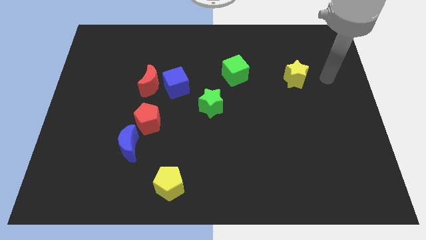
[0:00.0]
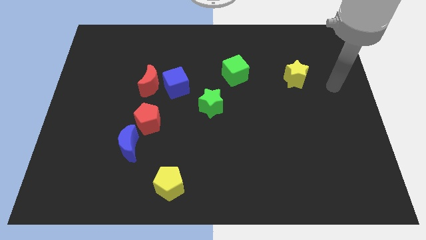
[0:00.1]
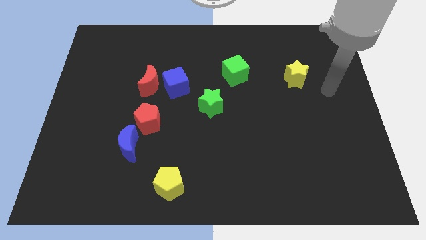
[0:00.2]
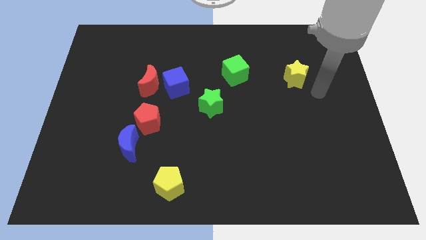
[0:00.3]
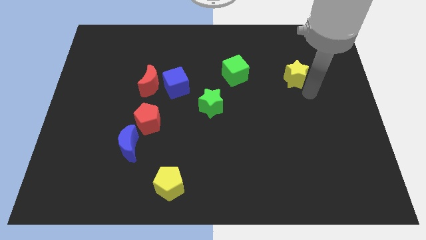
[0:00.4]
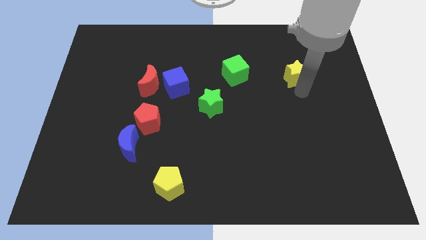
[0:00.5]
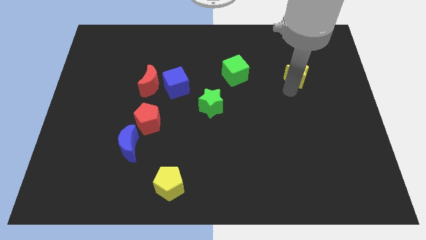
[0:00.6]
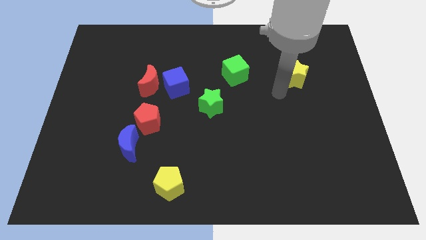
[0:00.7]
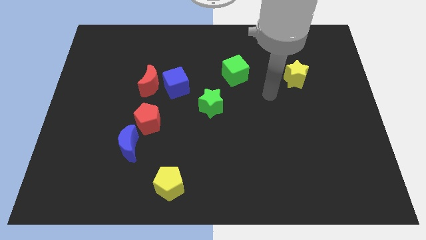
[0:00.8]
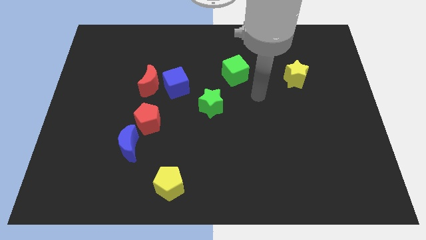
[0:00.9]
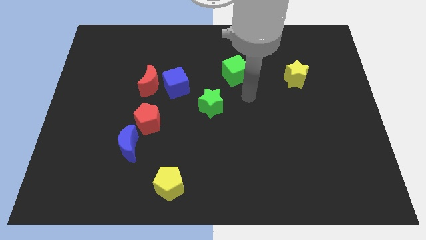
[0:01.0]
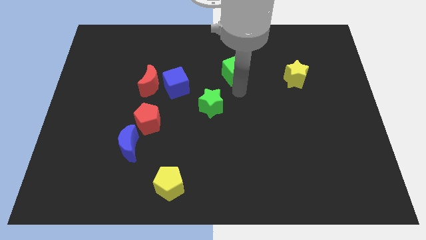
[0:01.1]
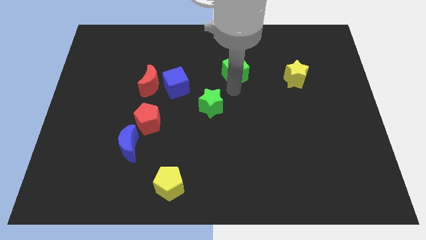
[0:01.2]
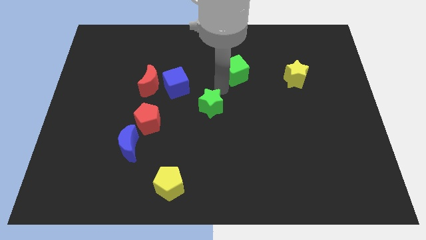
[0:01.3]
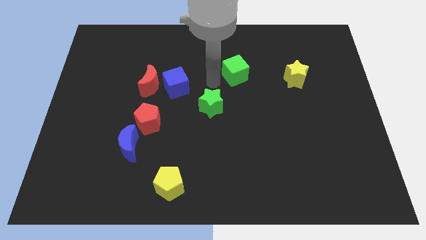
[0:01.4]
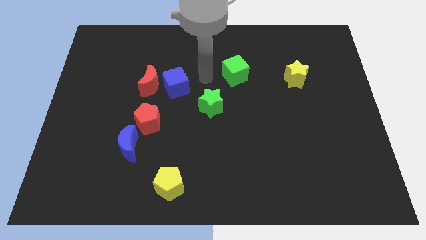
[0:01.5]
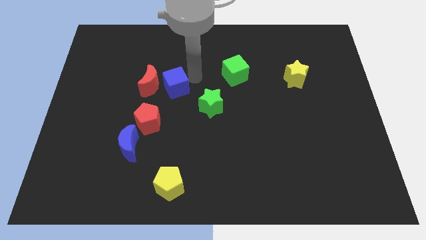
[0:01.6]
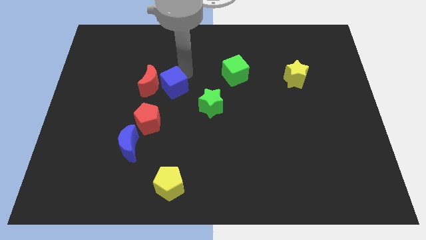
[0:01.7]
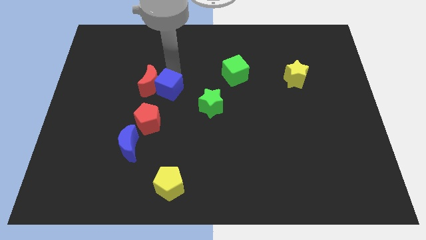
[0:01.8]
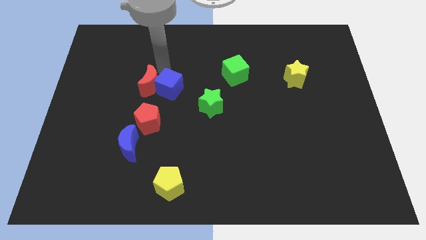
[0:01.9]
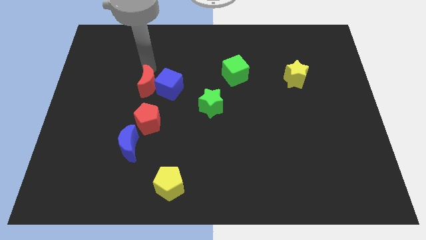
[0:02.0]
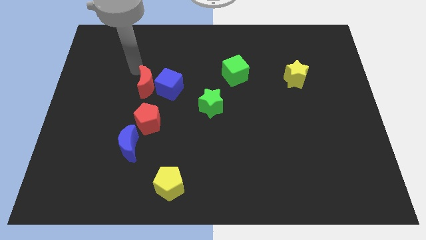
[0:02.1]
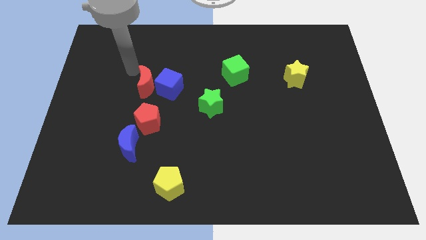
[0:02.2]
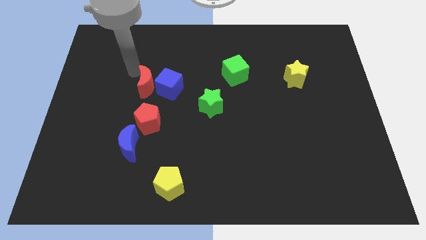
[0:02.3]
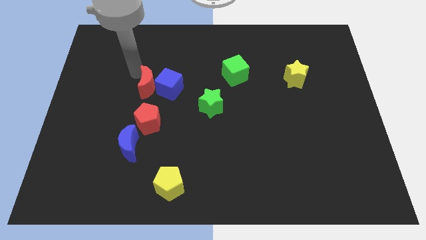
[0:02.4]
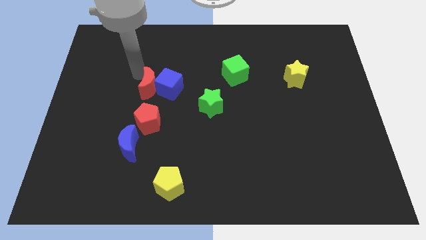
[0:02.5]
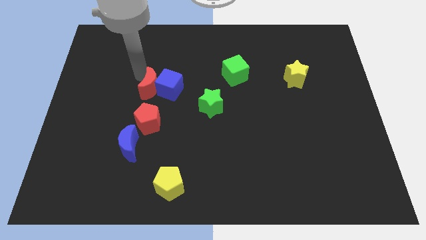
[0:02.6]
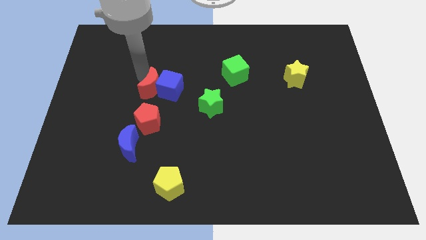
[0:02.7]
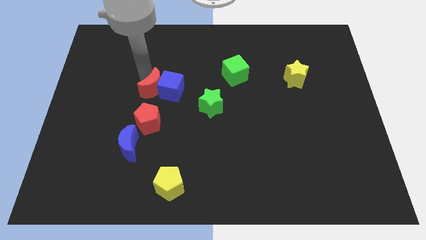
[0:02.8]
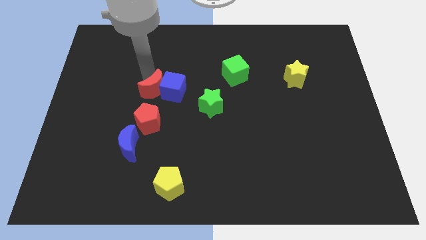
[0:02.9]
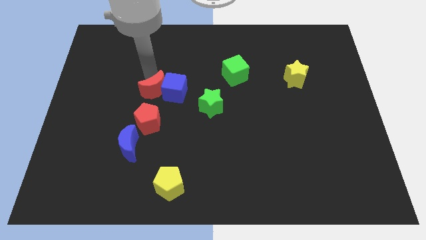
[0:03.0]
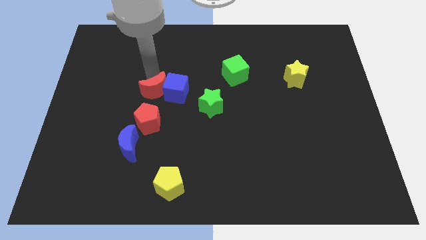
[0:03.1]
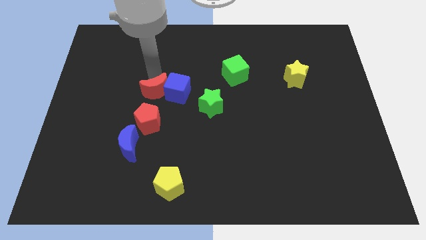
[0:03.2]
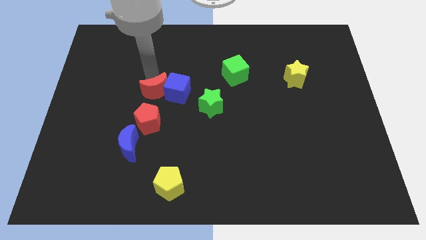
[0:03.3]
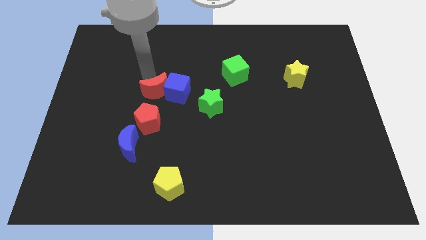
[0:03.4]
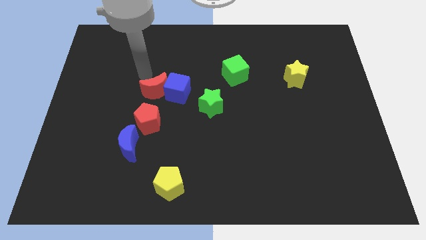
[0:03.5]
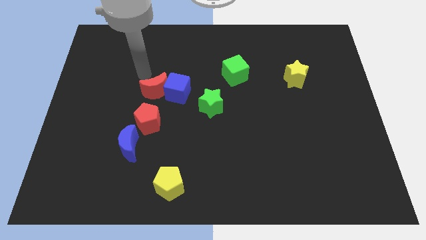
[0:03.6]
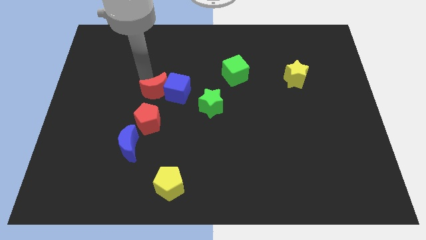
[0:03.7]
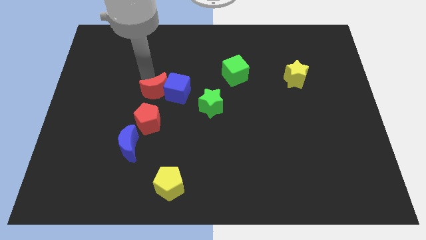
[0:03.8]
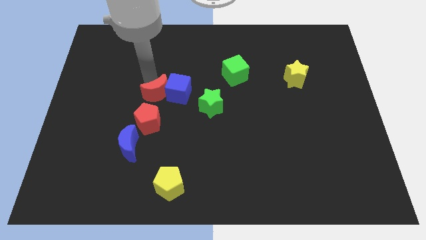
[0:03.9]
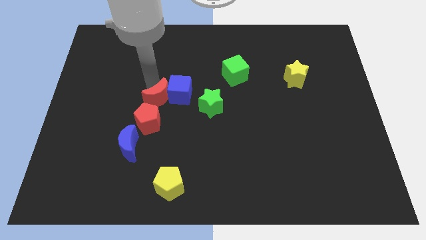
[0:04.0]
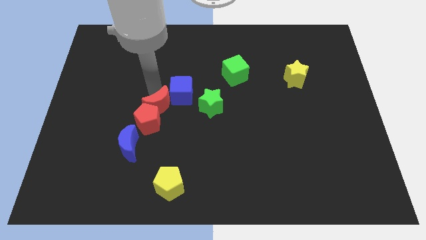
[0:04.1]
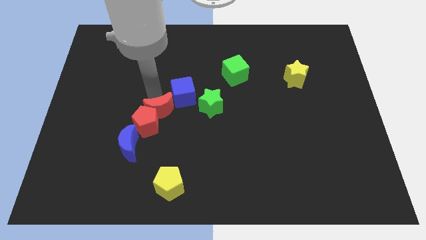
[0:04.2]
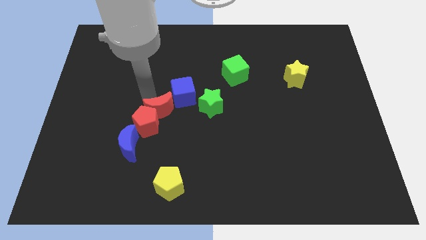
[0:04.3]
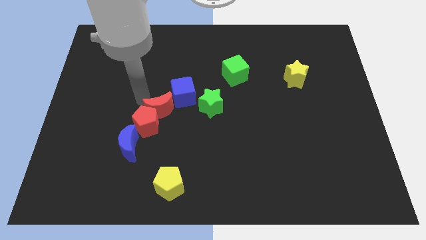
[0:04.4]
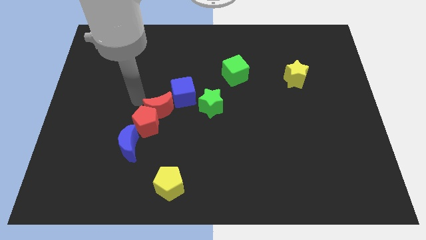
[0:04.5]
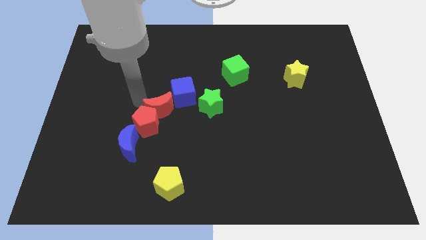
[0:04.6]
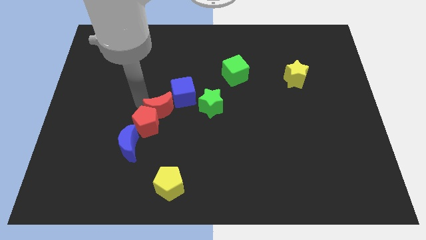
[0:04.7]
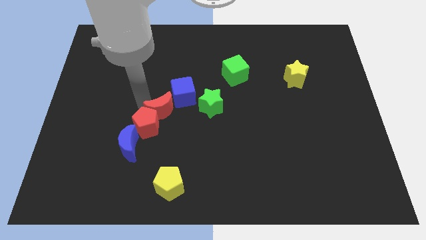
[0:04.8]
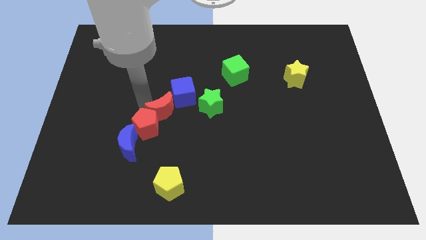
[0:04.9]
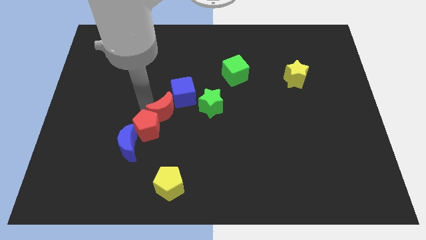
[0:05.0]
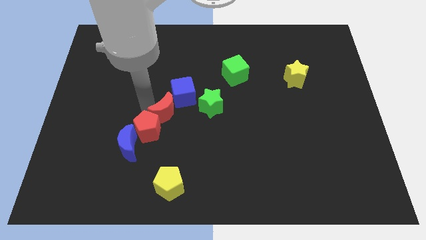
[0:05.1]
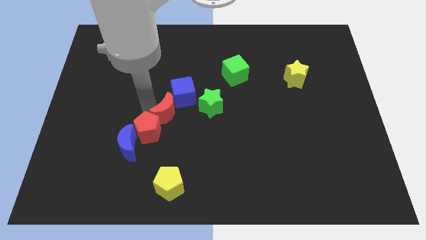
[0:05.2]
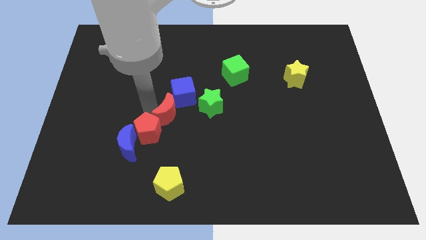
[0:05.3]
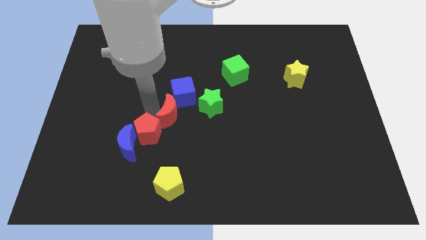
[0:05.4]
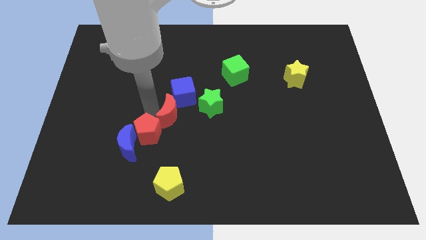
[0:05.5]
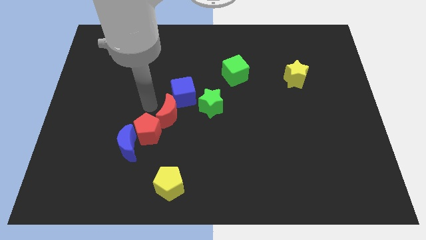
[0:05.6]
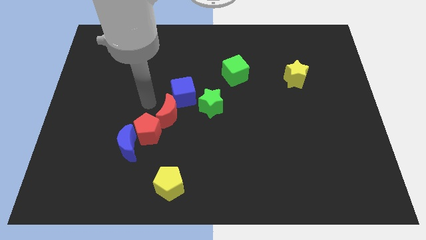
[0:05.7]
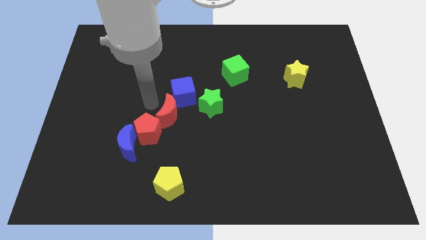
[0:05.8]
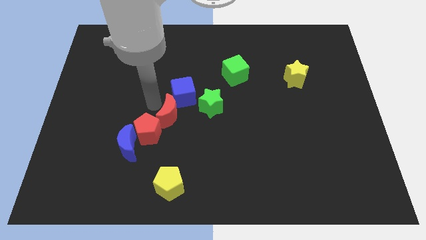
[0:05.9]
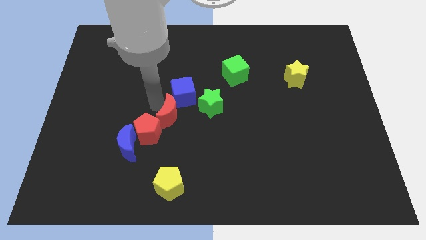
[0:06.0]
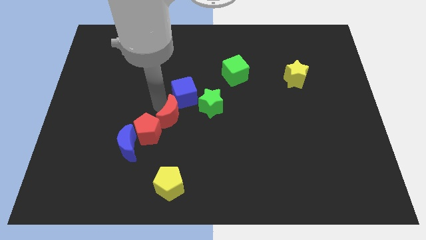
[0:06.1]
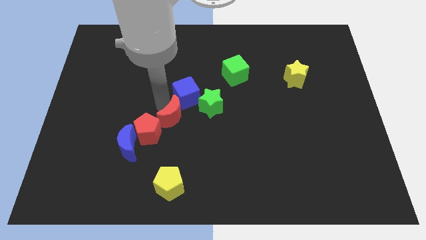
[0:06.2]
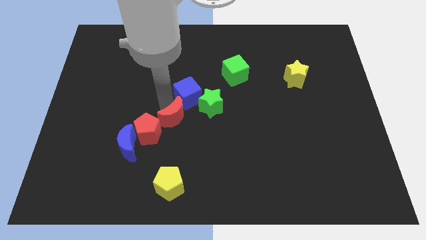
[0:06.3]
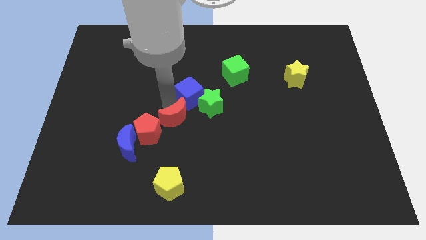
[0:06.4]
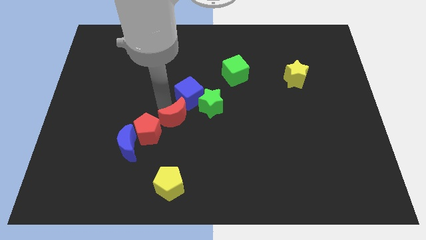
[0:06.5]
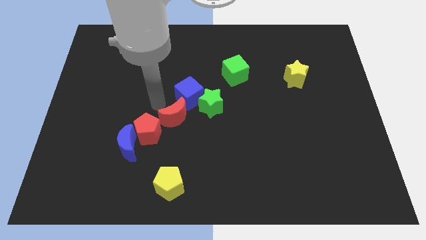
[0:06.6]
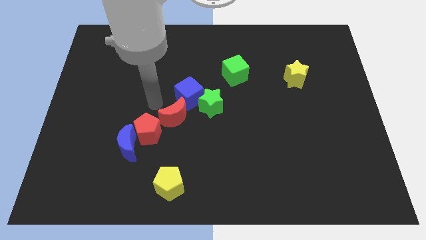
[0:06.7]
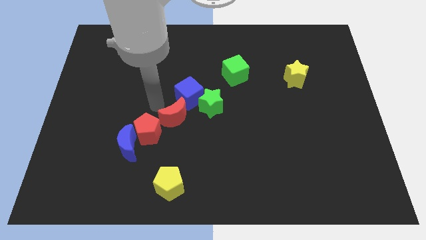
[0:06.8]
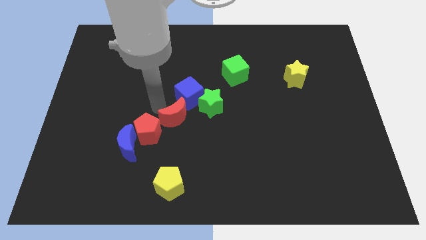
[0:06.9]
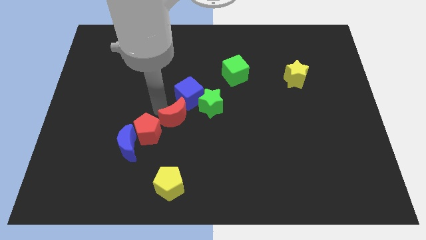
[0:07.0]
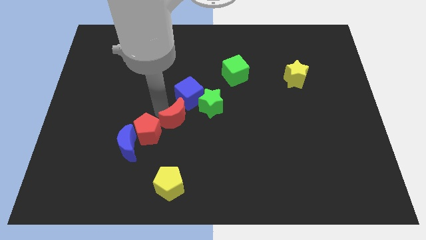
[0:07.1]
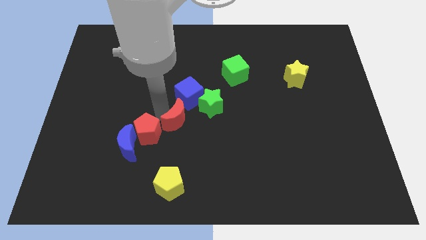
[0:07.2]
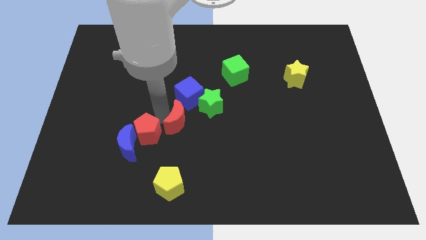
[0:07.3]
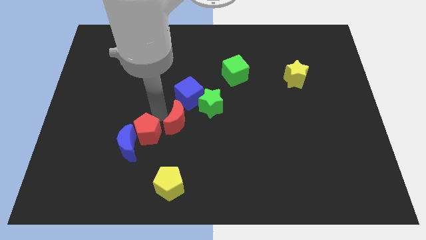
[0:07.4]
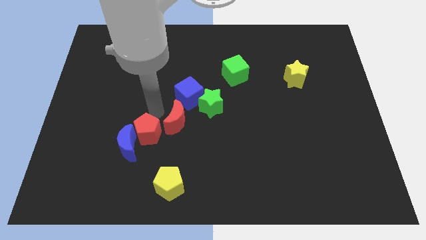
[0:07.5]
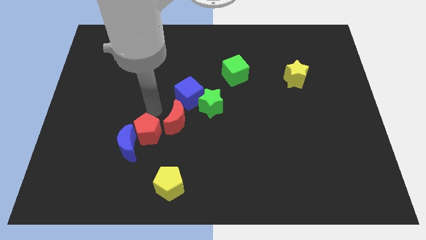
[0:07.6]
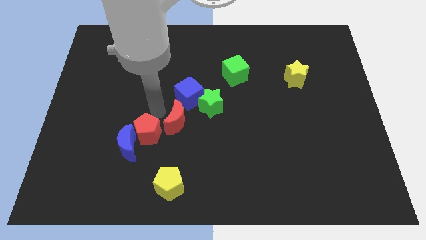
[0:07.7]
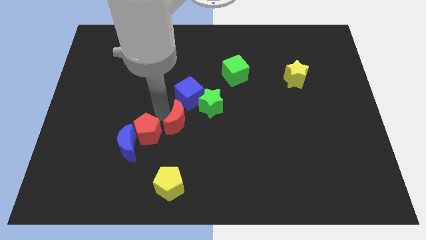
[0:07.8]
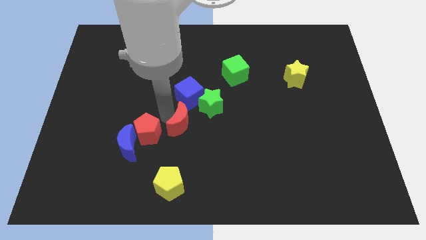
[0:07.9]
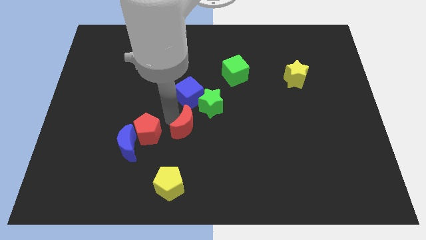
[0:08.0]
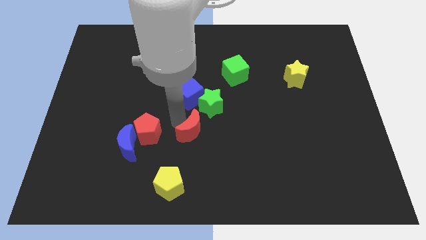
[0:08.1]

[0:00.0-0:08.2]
slide the red moon to the bottom side of the green star
